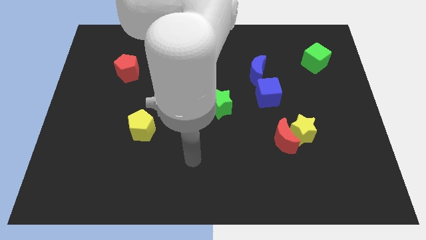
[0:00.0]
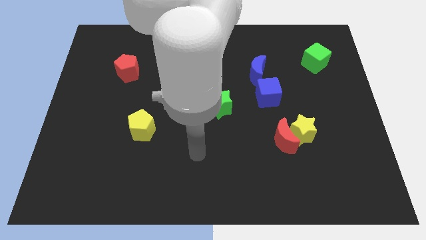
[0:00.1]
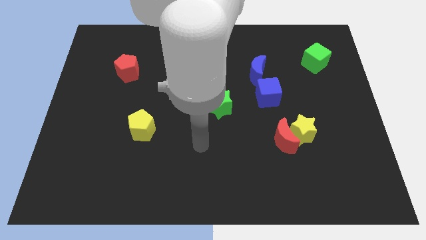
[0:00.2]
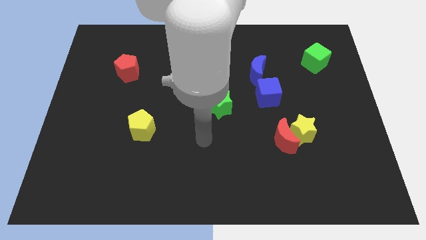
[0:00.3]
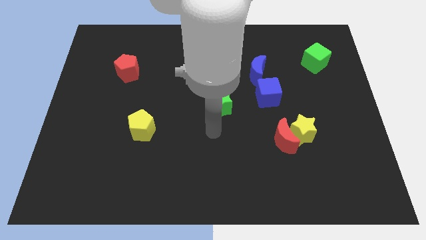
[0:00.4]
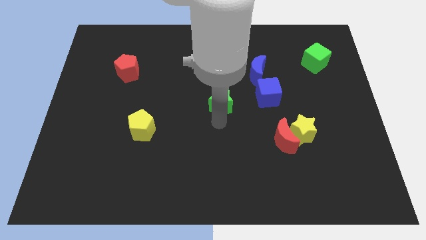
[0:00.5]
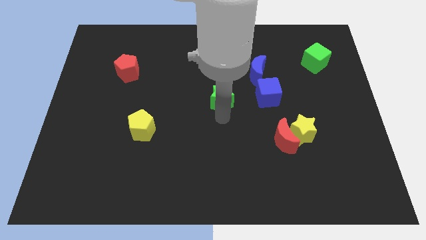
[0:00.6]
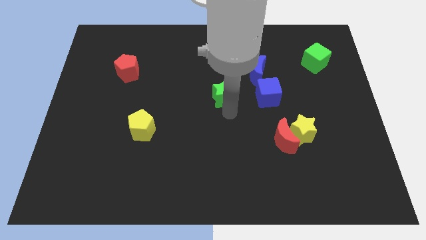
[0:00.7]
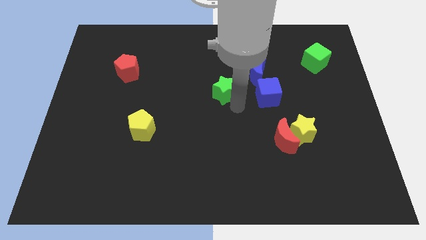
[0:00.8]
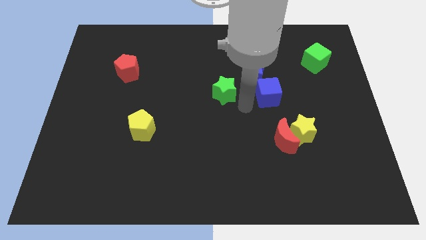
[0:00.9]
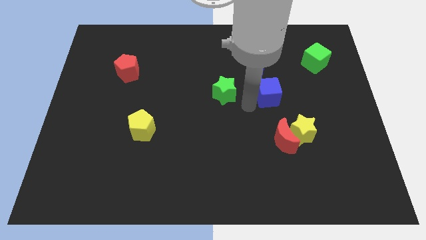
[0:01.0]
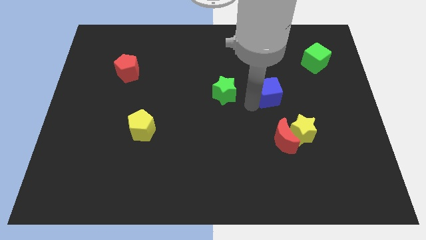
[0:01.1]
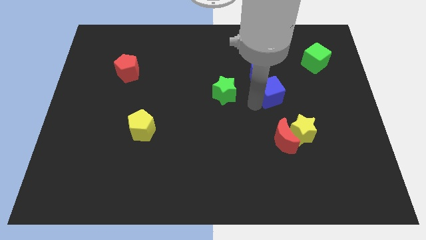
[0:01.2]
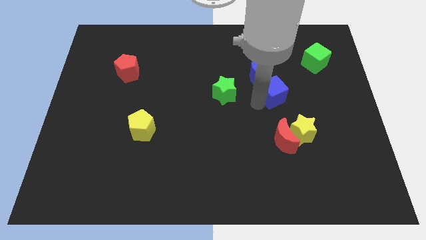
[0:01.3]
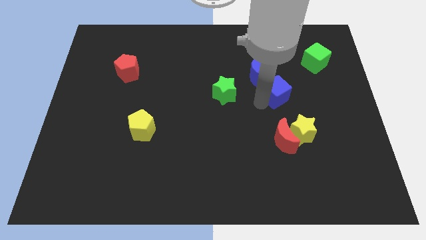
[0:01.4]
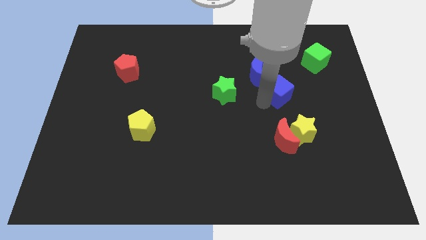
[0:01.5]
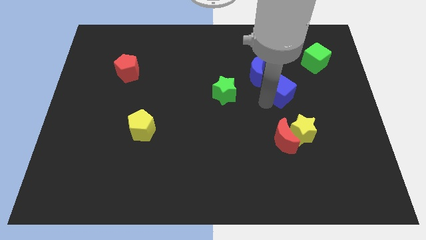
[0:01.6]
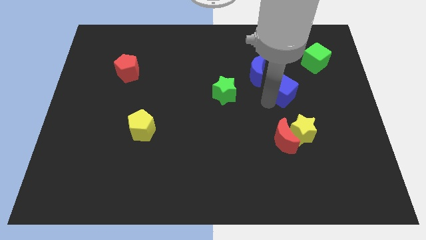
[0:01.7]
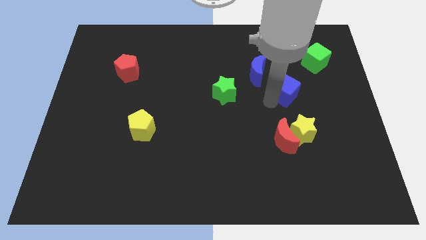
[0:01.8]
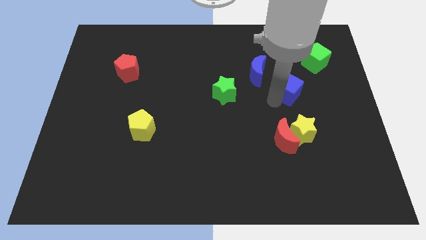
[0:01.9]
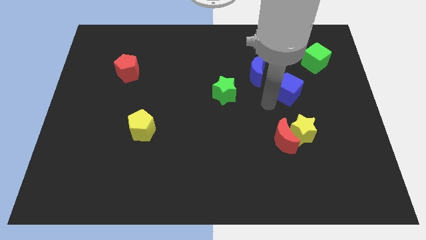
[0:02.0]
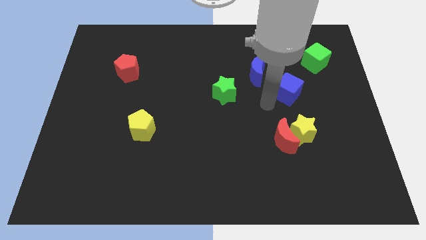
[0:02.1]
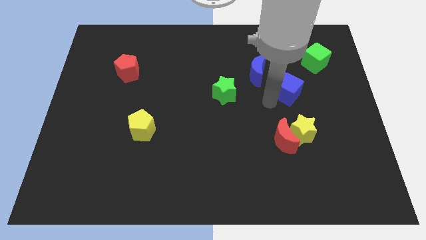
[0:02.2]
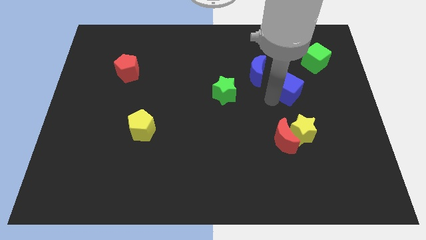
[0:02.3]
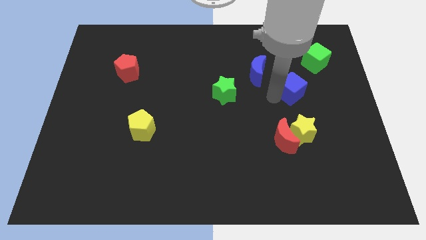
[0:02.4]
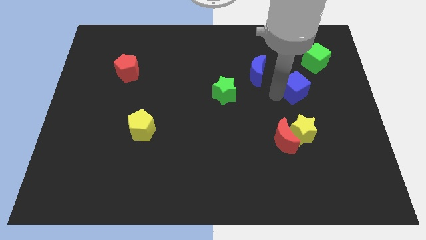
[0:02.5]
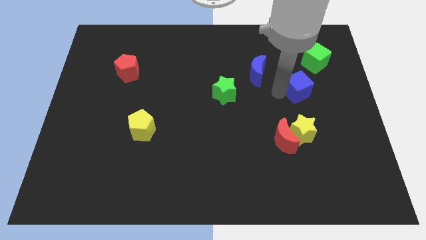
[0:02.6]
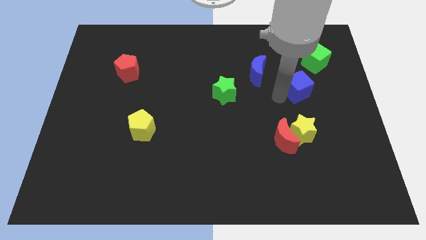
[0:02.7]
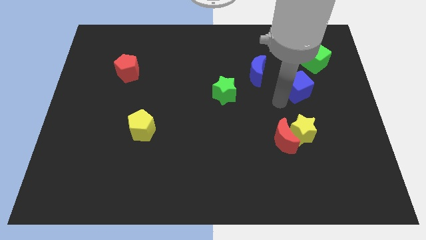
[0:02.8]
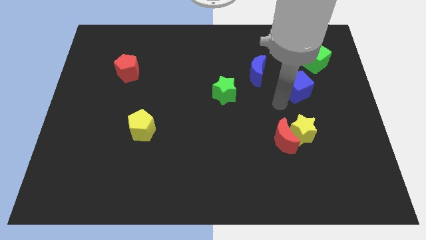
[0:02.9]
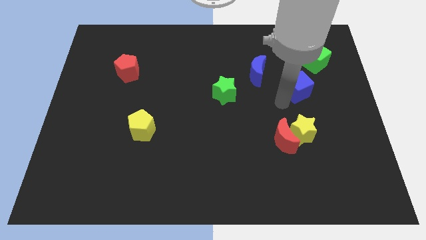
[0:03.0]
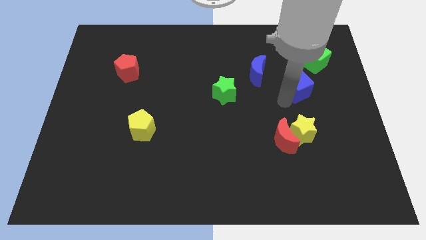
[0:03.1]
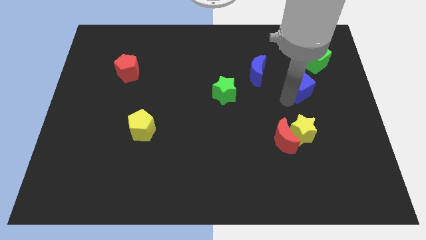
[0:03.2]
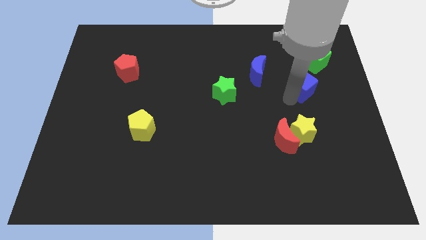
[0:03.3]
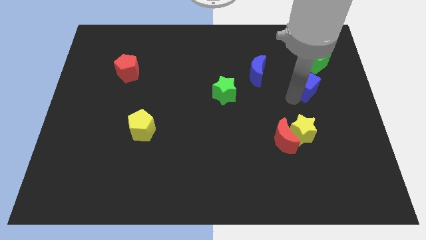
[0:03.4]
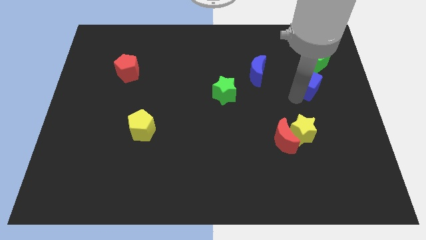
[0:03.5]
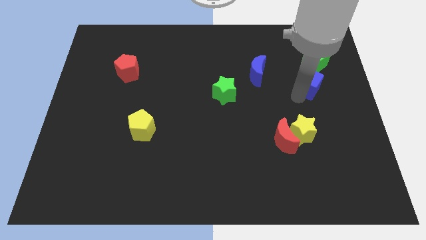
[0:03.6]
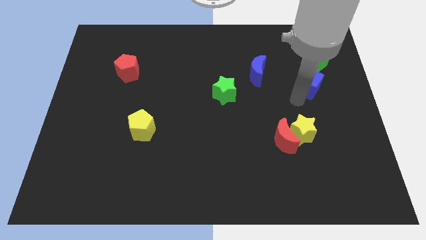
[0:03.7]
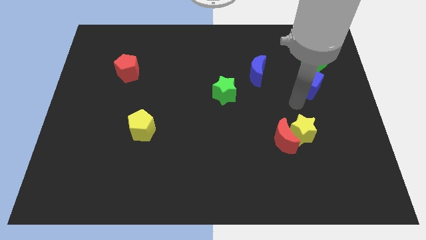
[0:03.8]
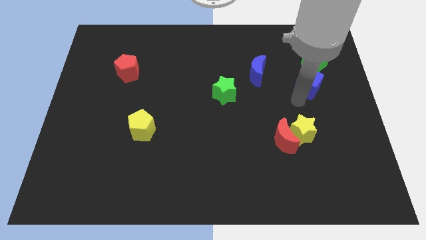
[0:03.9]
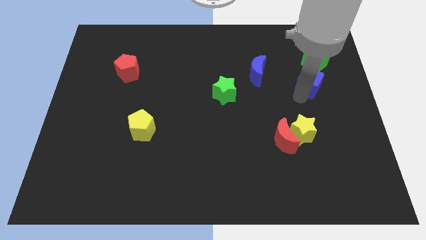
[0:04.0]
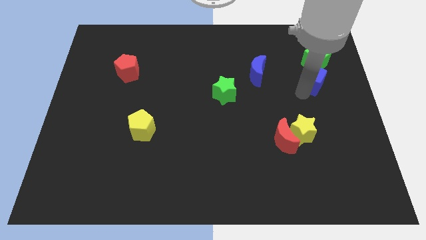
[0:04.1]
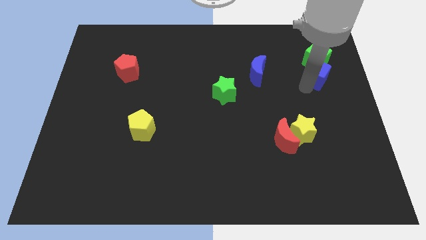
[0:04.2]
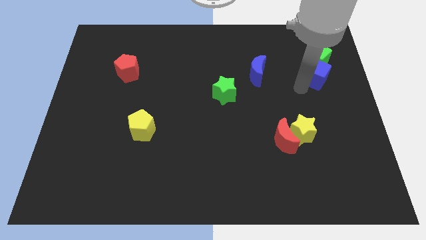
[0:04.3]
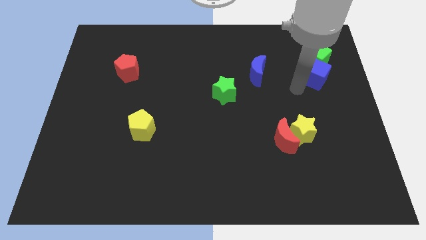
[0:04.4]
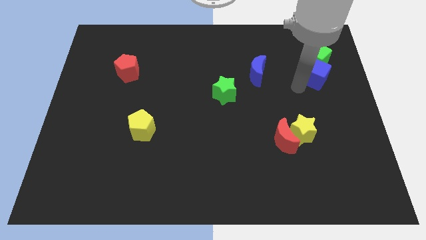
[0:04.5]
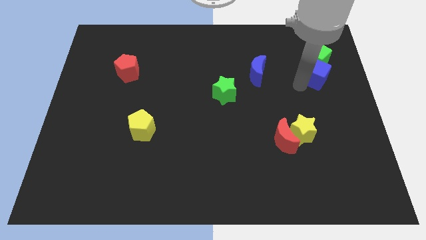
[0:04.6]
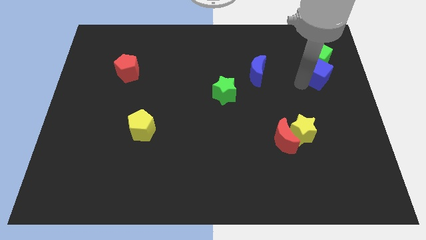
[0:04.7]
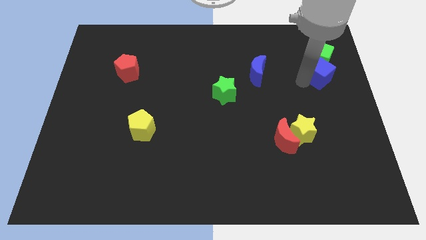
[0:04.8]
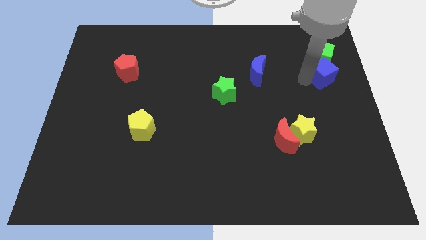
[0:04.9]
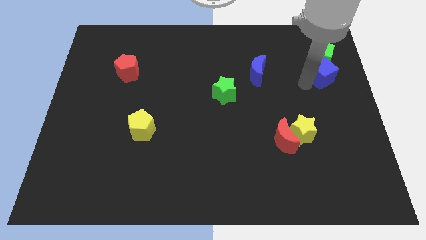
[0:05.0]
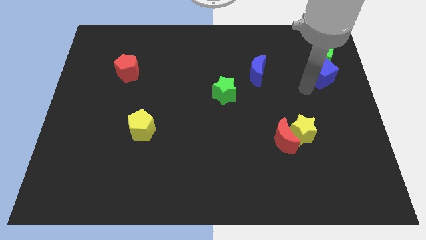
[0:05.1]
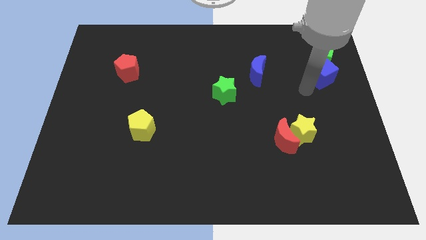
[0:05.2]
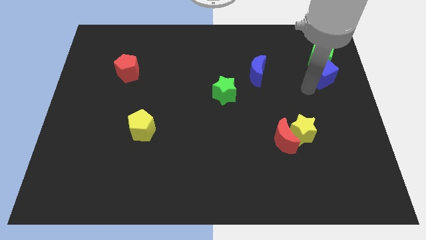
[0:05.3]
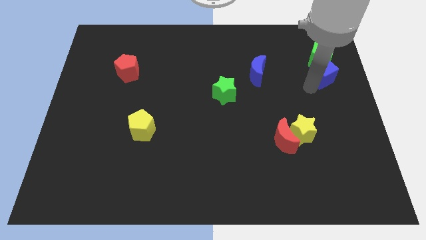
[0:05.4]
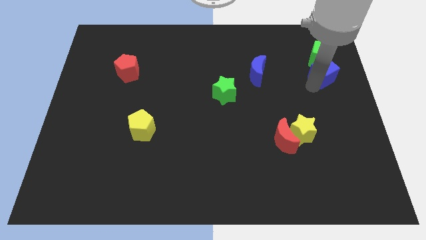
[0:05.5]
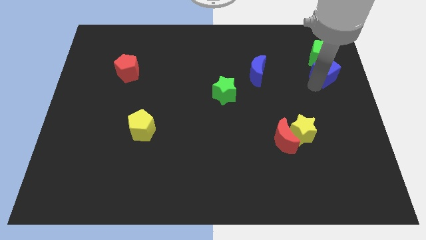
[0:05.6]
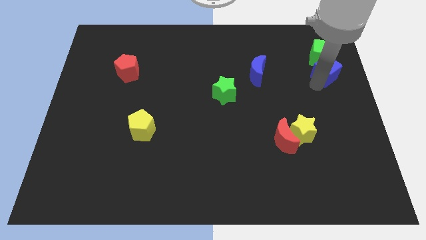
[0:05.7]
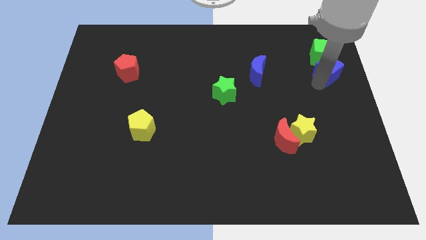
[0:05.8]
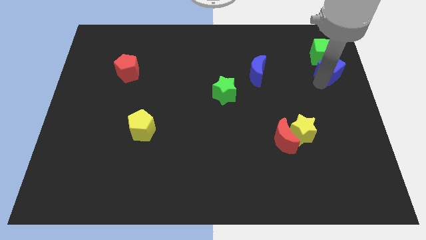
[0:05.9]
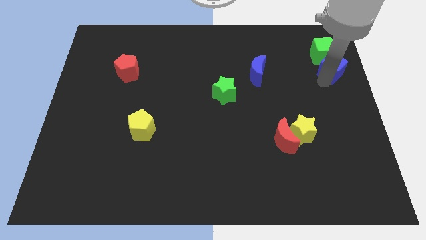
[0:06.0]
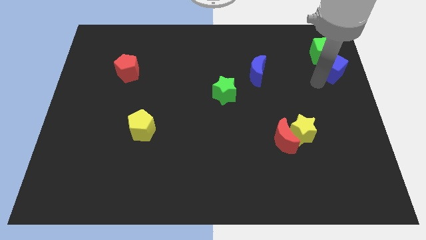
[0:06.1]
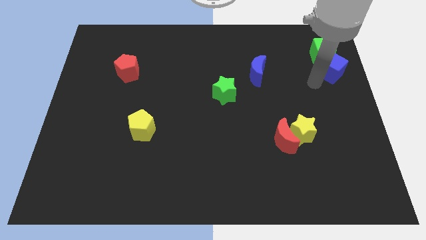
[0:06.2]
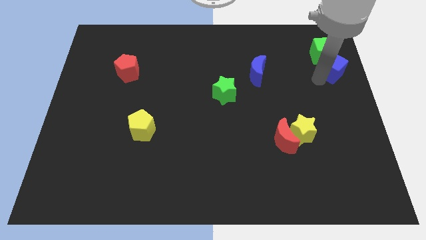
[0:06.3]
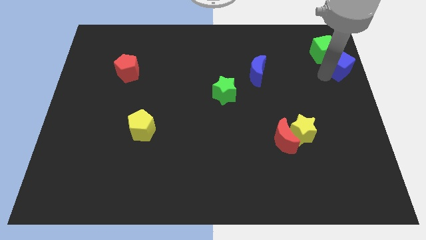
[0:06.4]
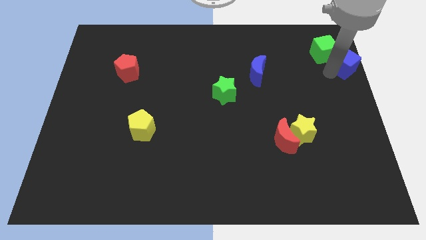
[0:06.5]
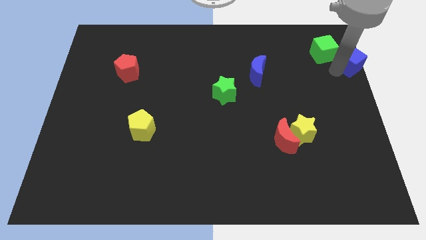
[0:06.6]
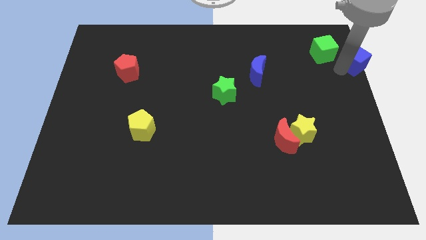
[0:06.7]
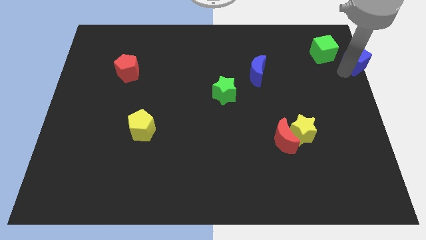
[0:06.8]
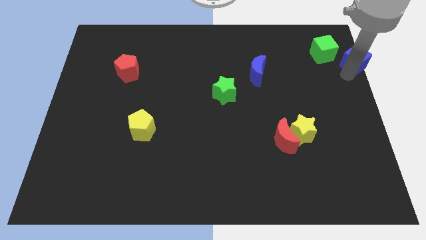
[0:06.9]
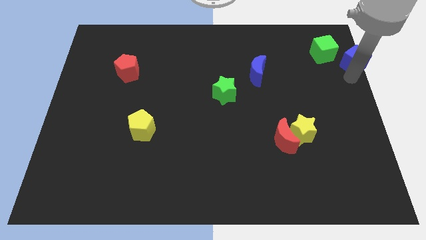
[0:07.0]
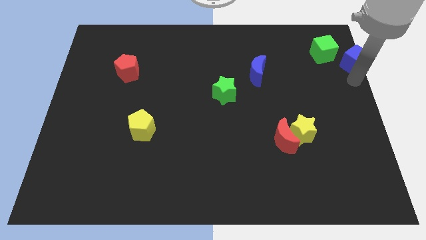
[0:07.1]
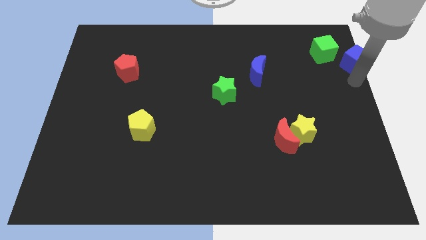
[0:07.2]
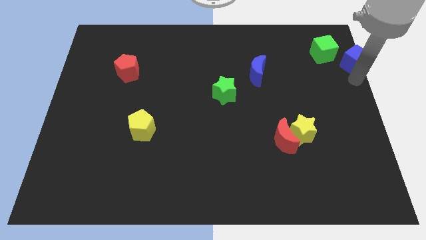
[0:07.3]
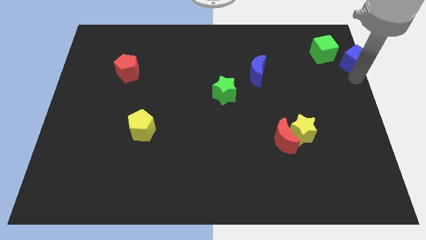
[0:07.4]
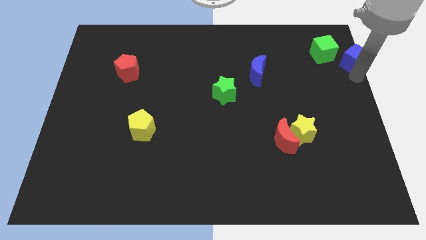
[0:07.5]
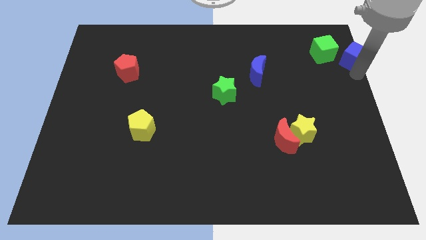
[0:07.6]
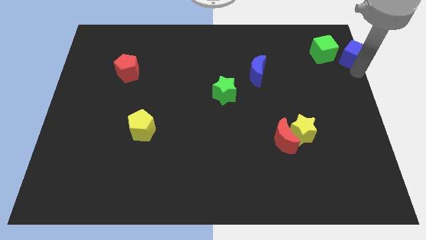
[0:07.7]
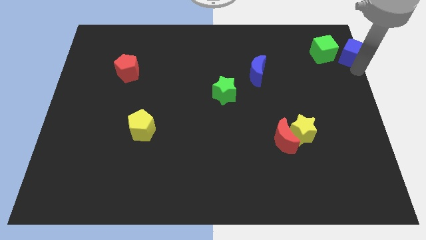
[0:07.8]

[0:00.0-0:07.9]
put the blue cube to the top right of the board
